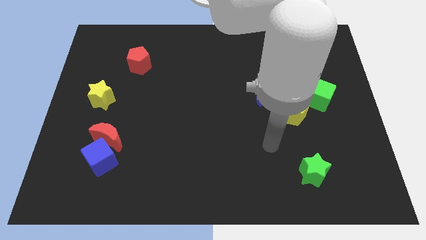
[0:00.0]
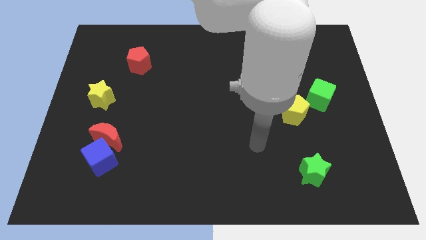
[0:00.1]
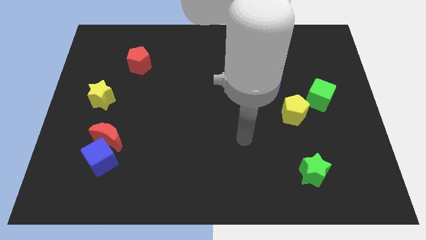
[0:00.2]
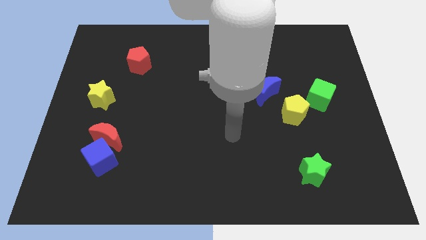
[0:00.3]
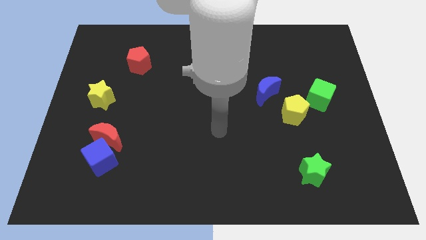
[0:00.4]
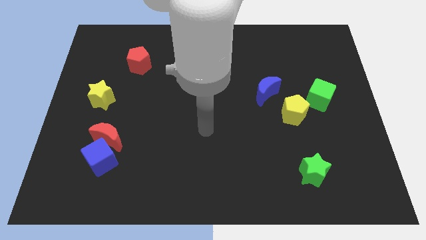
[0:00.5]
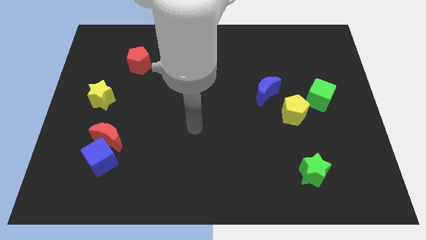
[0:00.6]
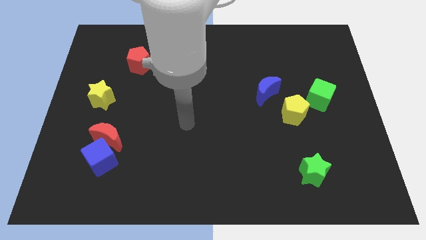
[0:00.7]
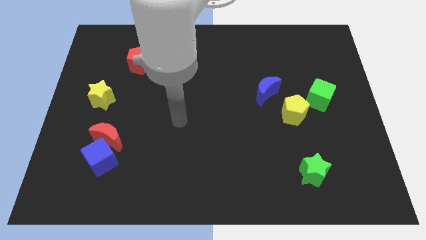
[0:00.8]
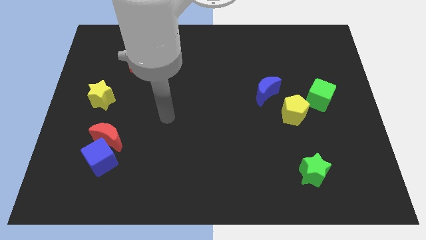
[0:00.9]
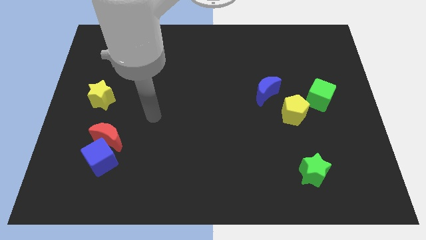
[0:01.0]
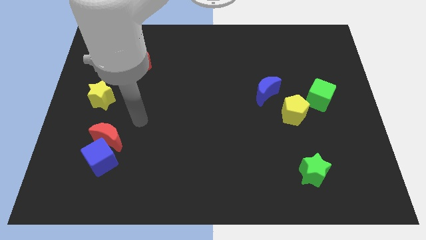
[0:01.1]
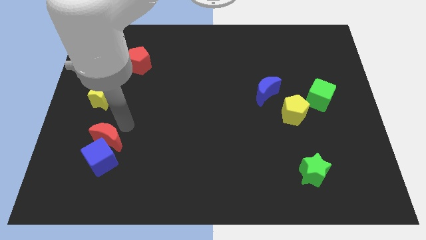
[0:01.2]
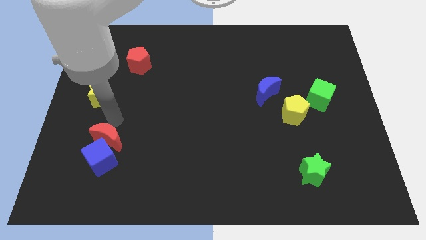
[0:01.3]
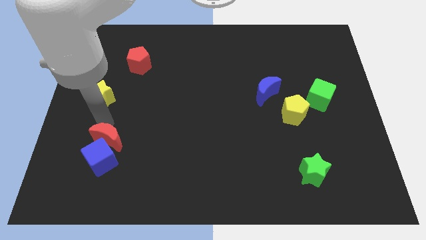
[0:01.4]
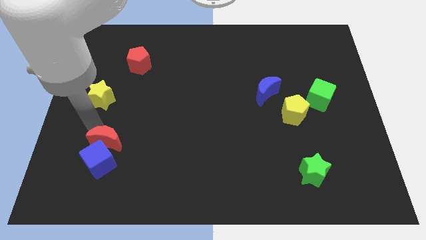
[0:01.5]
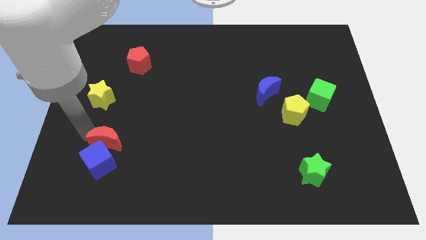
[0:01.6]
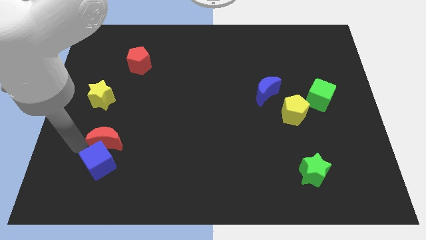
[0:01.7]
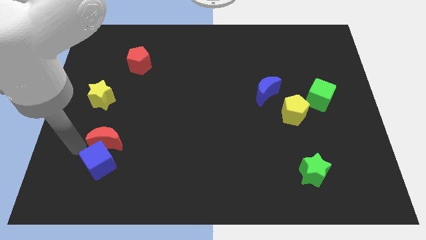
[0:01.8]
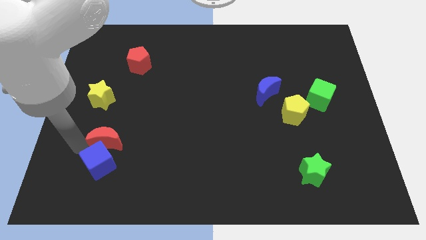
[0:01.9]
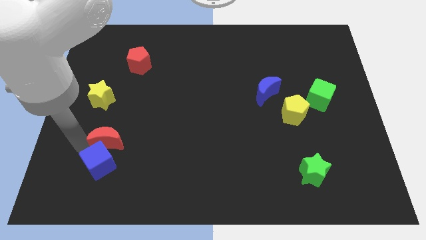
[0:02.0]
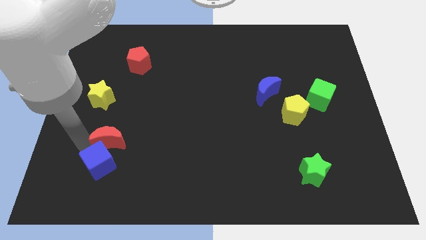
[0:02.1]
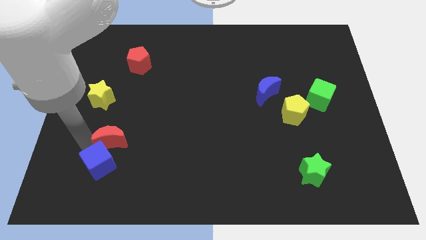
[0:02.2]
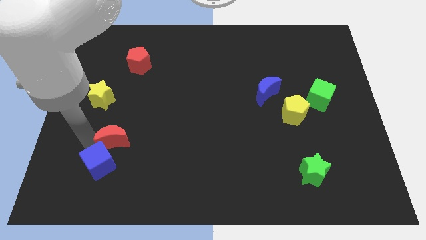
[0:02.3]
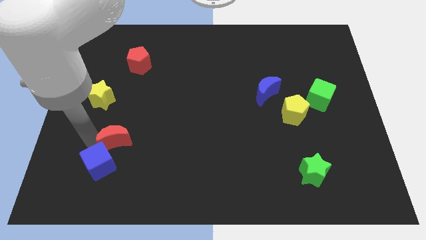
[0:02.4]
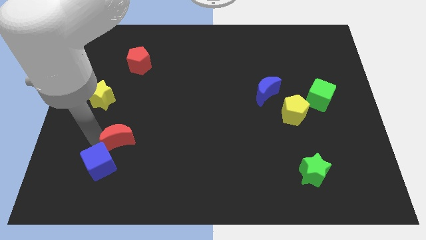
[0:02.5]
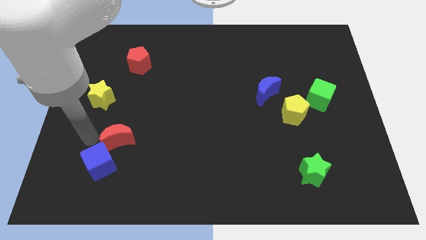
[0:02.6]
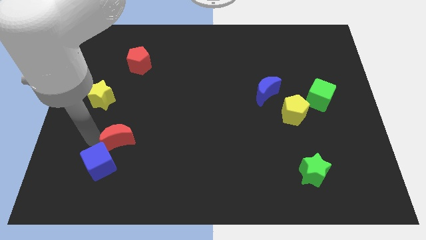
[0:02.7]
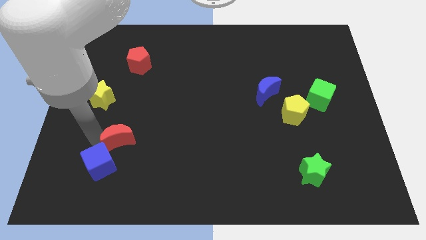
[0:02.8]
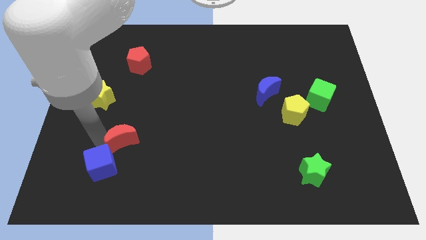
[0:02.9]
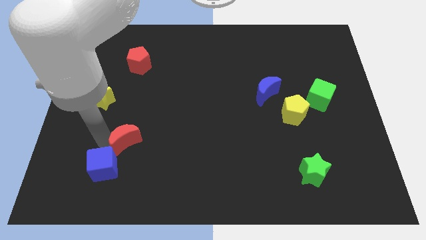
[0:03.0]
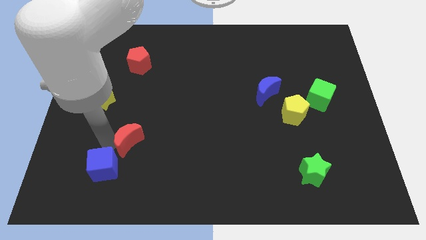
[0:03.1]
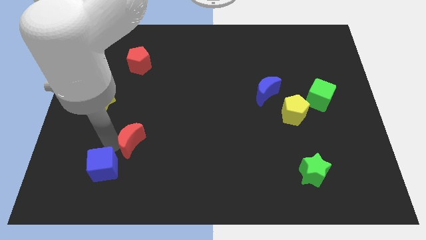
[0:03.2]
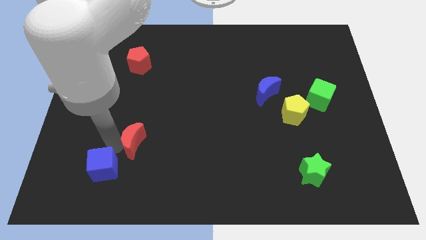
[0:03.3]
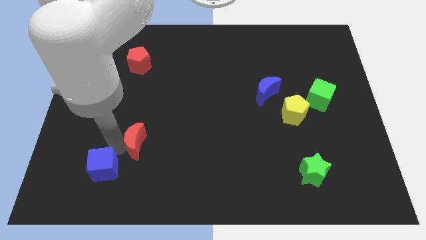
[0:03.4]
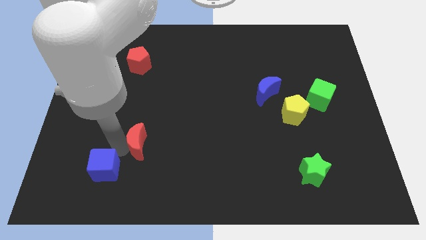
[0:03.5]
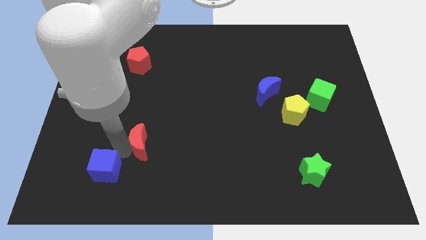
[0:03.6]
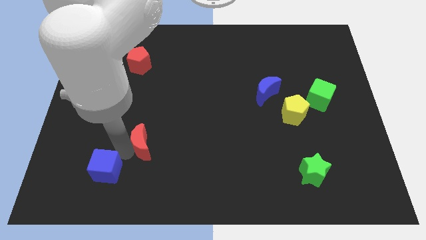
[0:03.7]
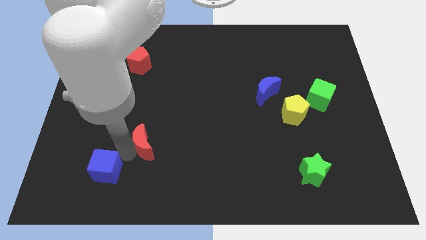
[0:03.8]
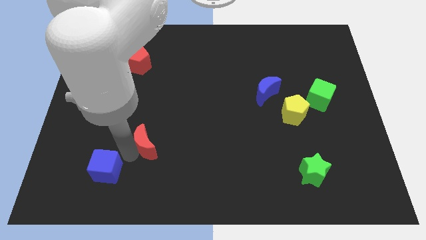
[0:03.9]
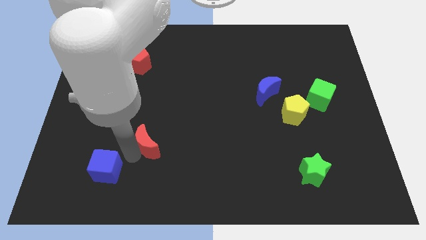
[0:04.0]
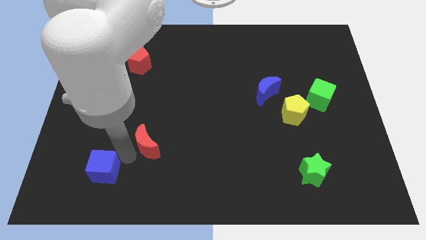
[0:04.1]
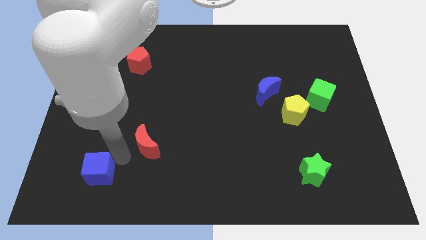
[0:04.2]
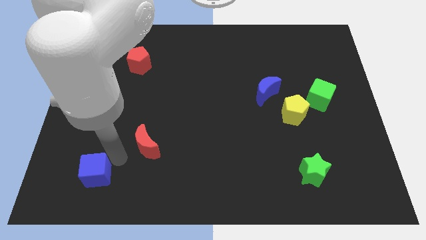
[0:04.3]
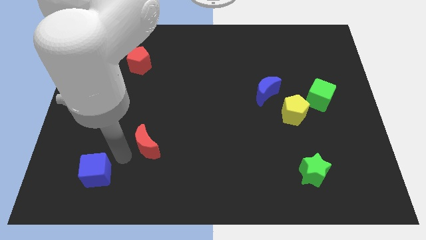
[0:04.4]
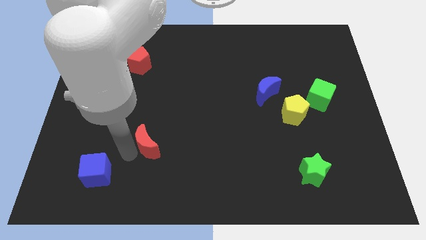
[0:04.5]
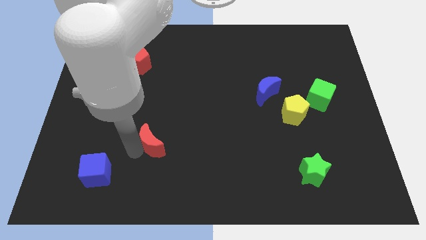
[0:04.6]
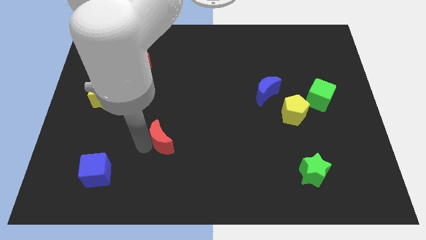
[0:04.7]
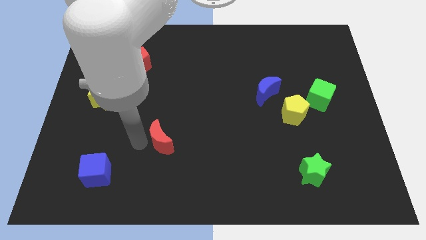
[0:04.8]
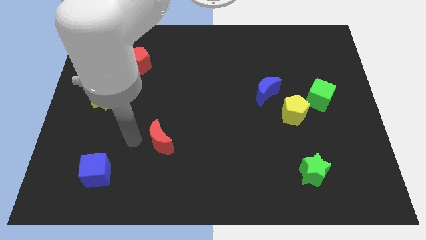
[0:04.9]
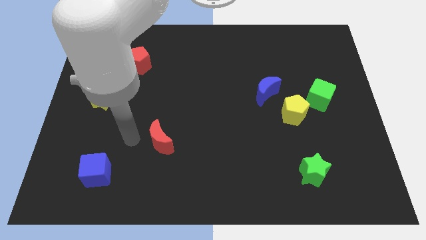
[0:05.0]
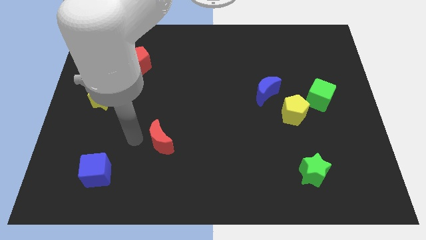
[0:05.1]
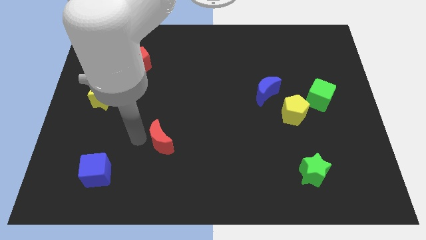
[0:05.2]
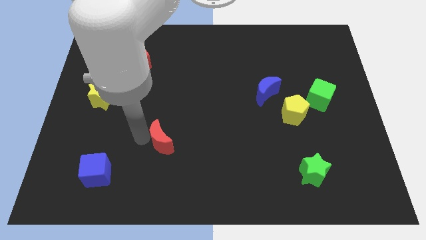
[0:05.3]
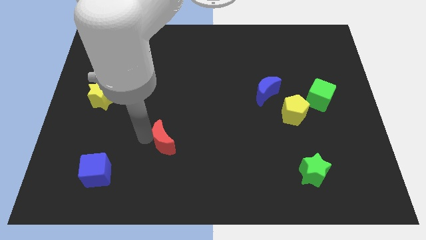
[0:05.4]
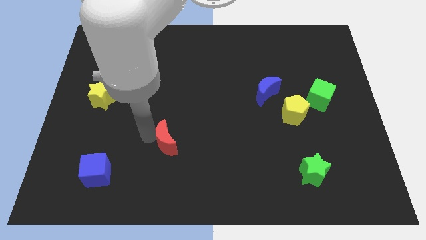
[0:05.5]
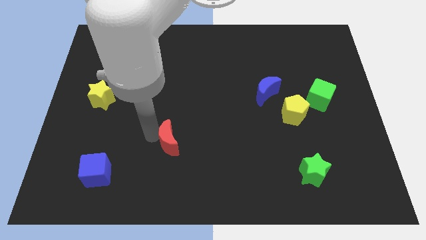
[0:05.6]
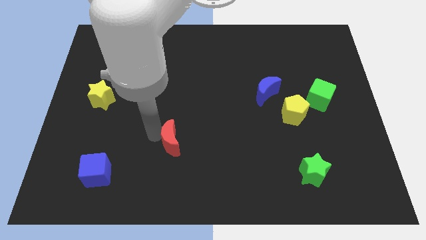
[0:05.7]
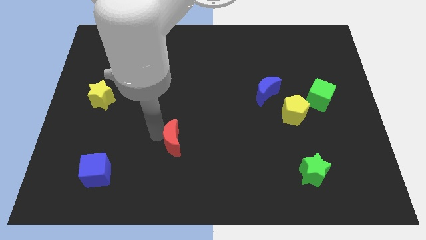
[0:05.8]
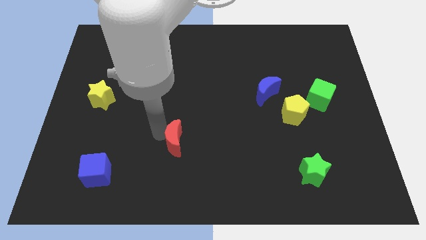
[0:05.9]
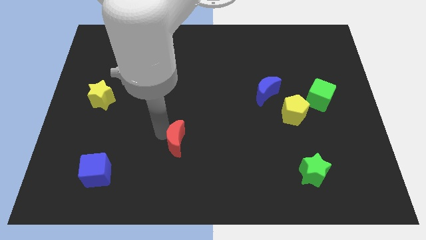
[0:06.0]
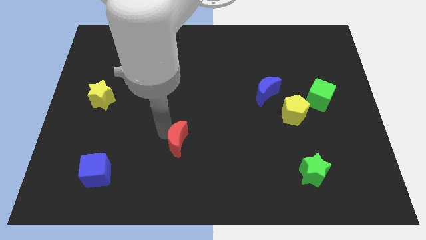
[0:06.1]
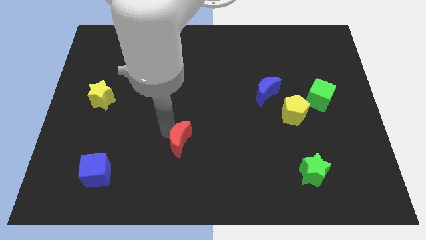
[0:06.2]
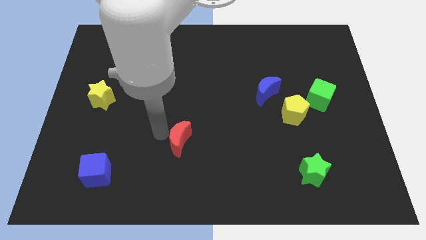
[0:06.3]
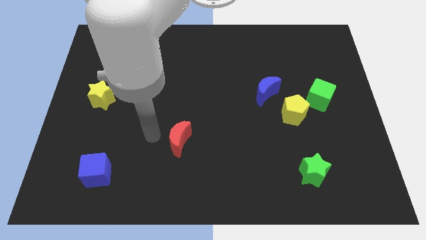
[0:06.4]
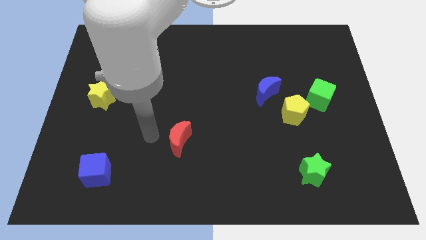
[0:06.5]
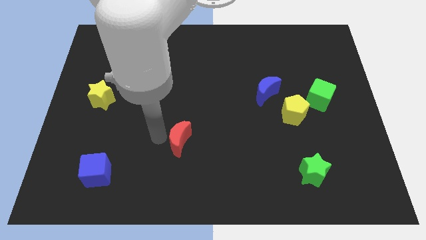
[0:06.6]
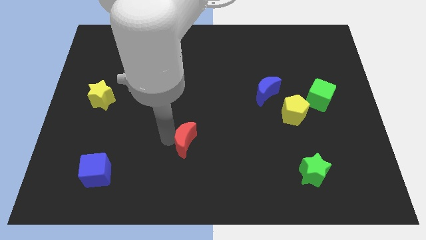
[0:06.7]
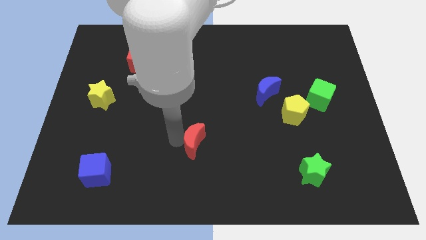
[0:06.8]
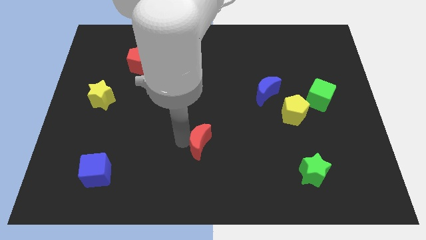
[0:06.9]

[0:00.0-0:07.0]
push the red moon to the right

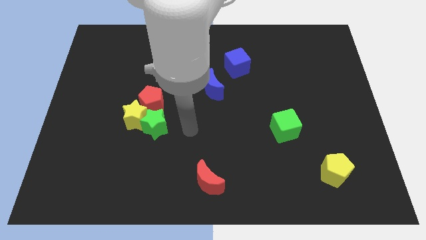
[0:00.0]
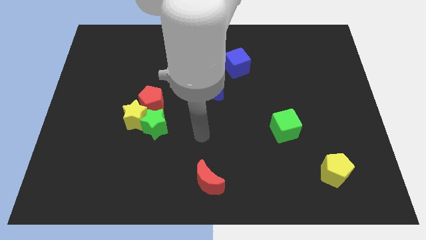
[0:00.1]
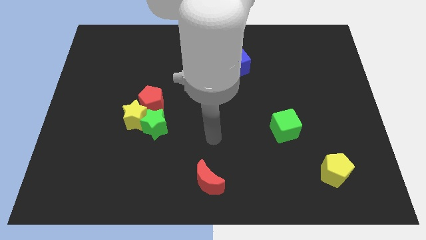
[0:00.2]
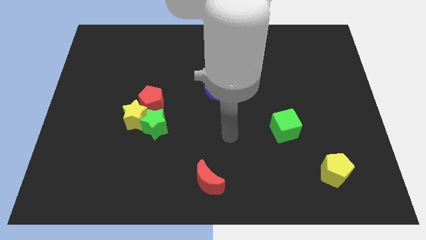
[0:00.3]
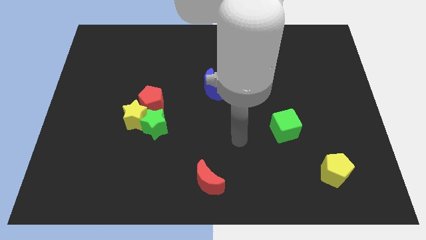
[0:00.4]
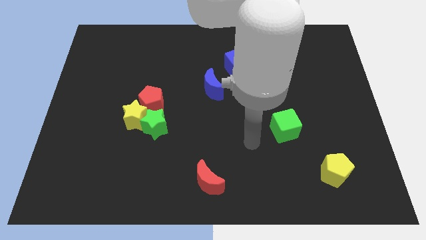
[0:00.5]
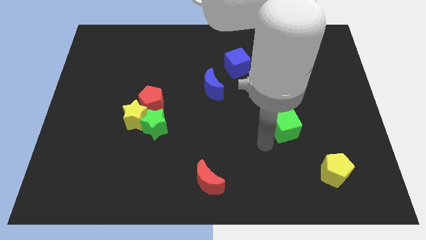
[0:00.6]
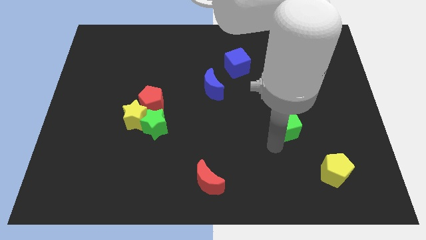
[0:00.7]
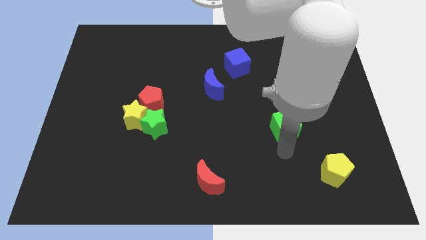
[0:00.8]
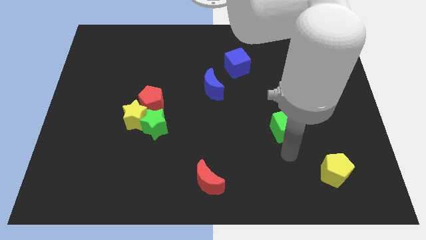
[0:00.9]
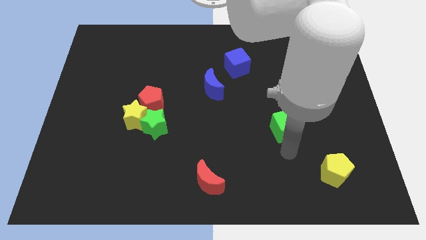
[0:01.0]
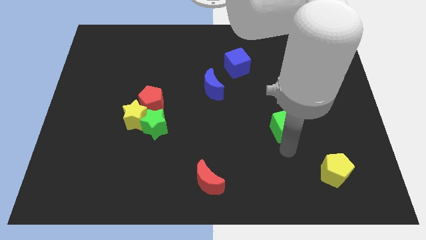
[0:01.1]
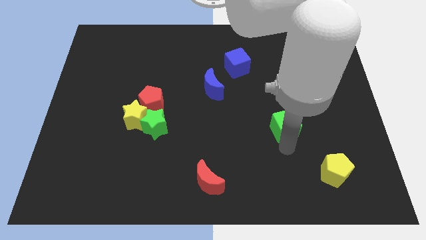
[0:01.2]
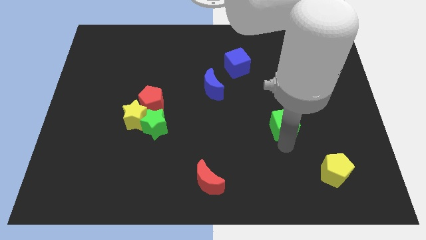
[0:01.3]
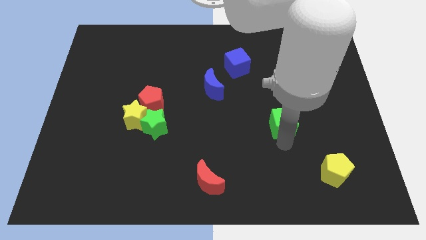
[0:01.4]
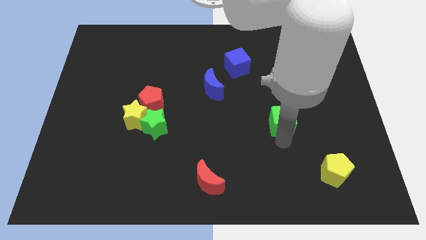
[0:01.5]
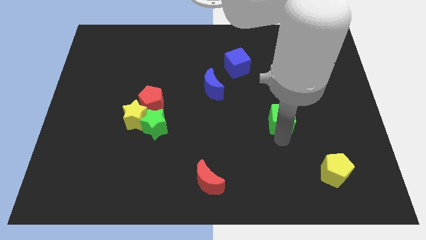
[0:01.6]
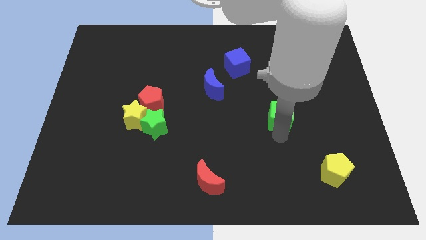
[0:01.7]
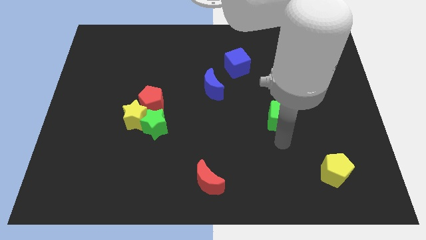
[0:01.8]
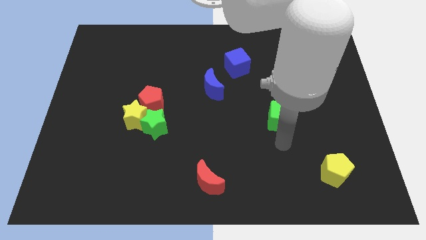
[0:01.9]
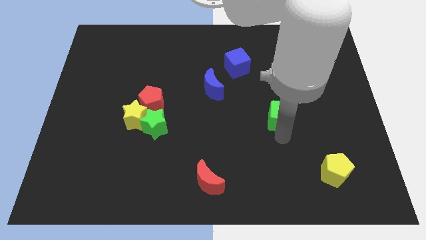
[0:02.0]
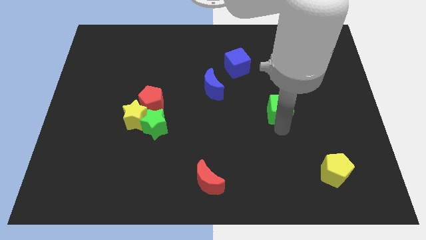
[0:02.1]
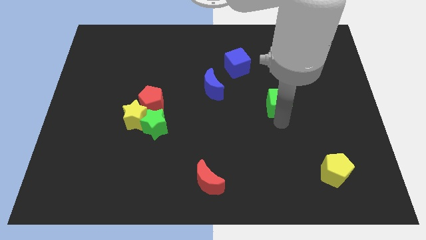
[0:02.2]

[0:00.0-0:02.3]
slightly push the green cube up
